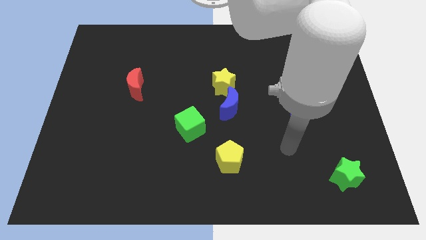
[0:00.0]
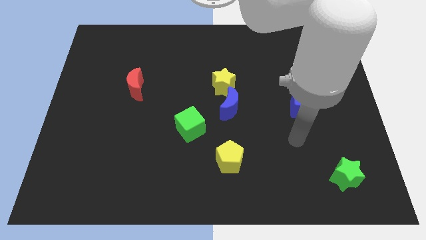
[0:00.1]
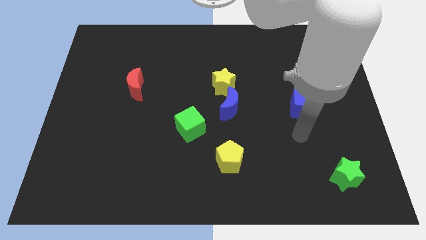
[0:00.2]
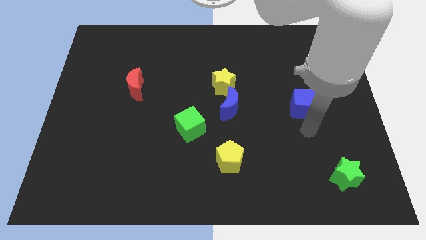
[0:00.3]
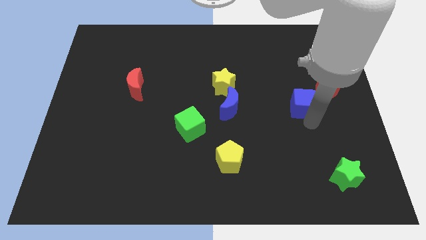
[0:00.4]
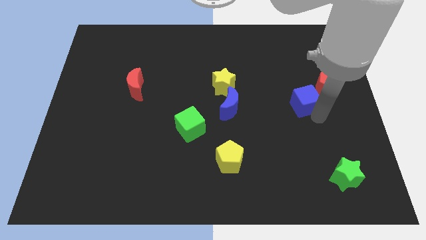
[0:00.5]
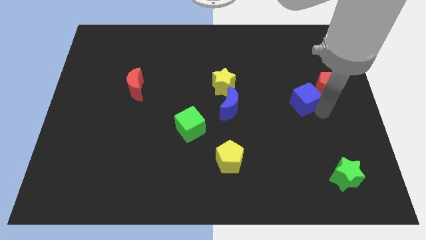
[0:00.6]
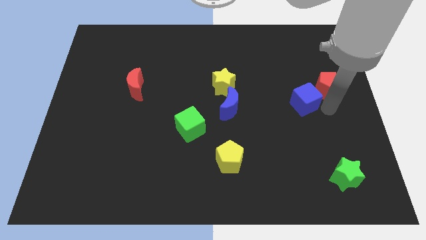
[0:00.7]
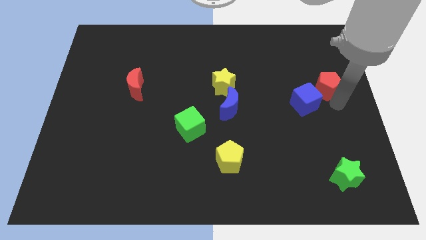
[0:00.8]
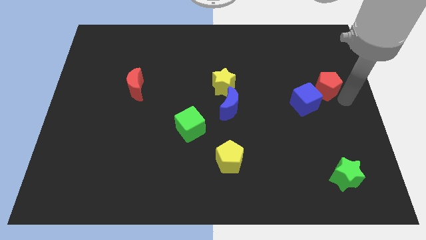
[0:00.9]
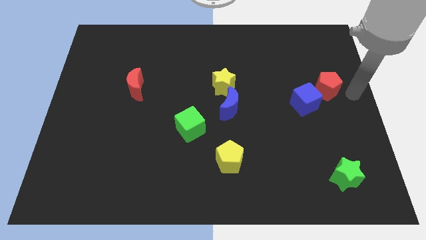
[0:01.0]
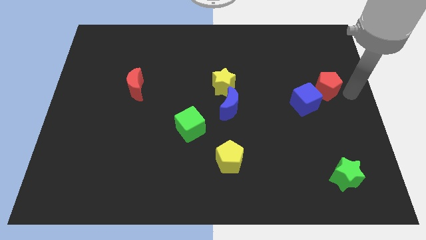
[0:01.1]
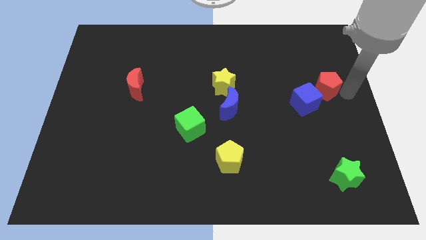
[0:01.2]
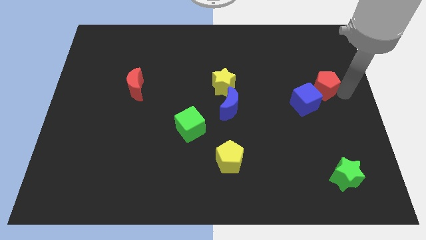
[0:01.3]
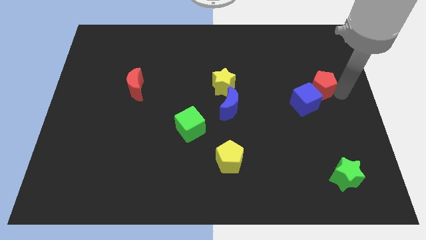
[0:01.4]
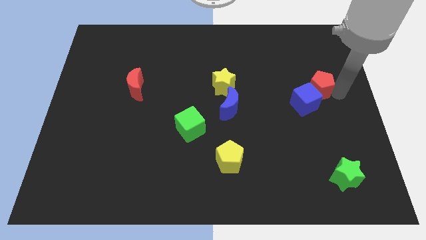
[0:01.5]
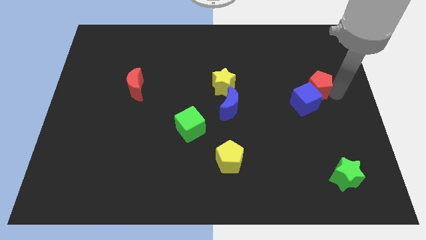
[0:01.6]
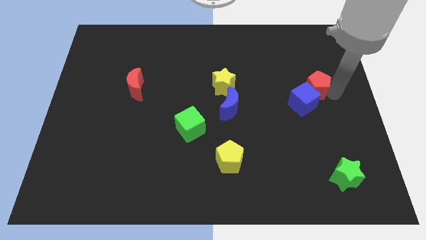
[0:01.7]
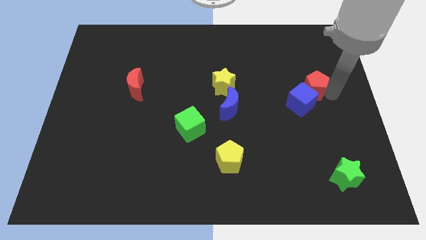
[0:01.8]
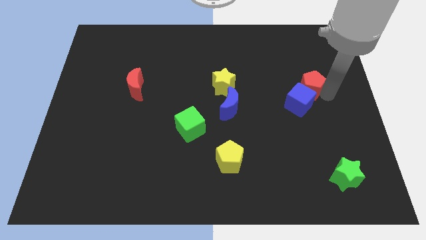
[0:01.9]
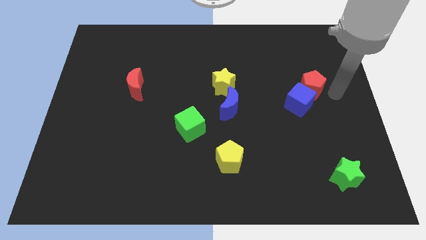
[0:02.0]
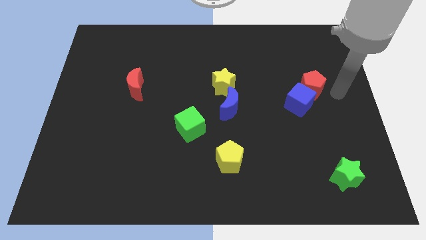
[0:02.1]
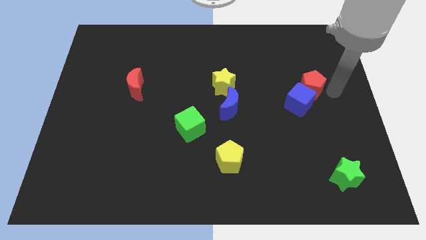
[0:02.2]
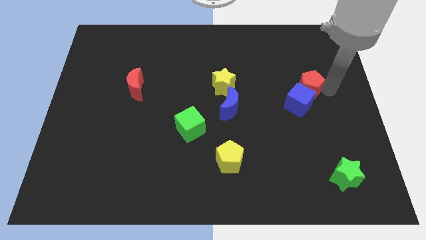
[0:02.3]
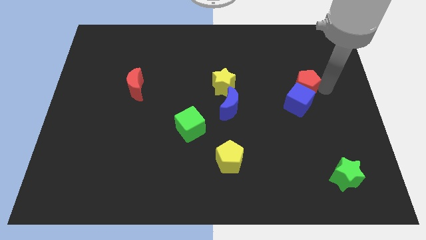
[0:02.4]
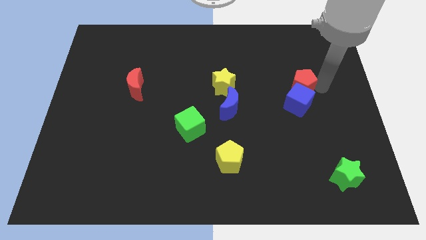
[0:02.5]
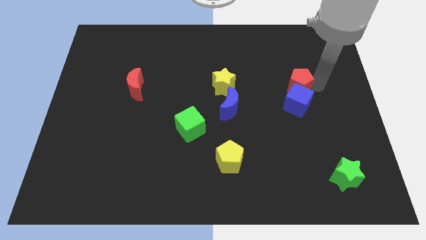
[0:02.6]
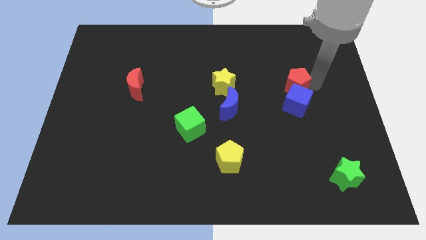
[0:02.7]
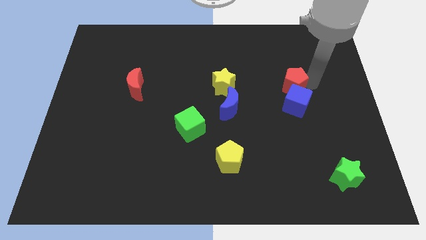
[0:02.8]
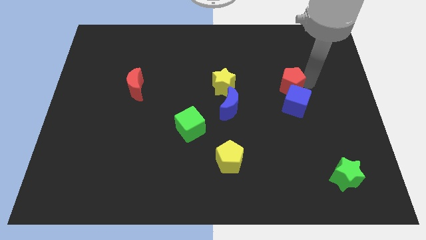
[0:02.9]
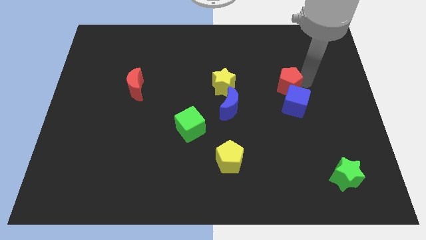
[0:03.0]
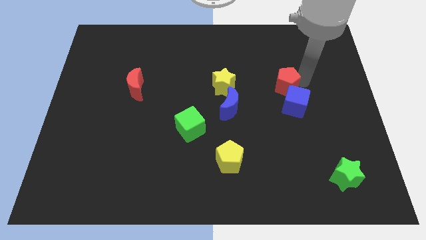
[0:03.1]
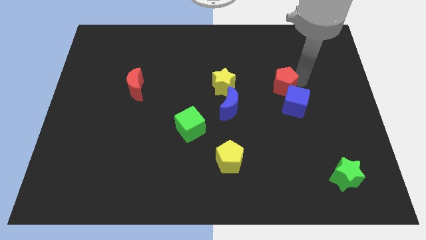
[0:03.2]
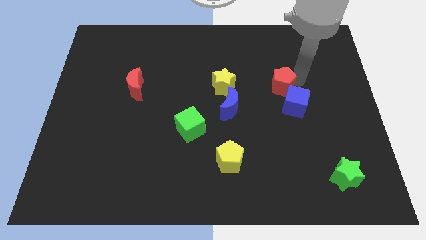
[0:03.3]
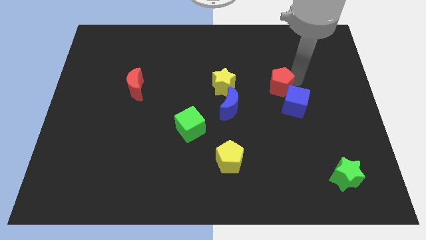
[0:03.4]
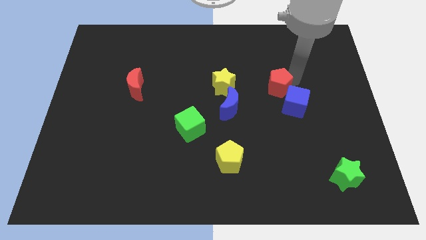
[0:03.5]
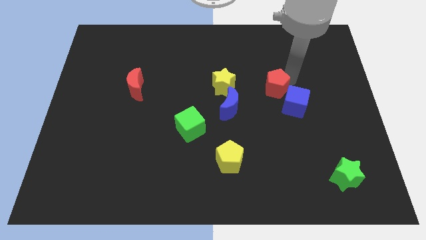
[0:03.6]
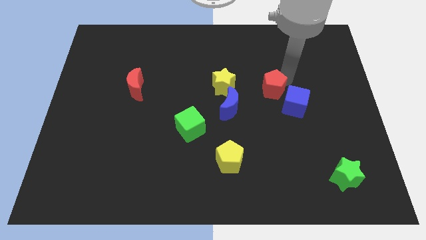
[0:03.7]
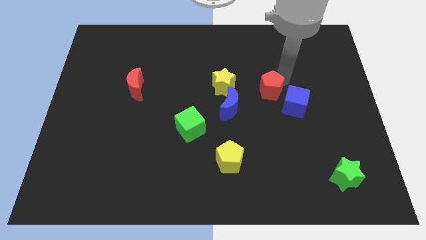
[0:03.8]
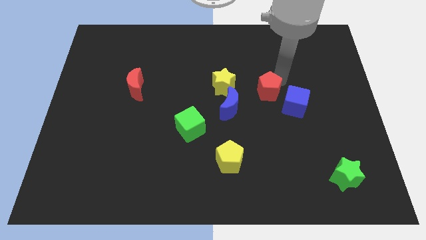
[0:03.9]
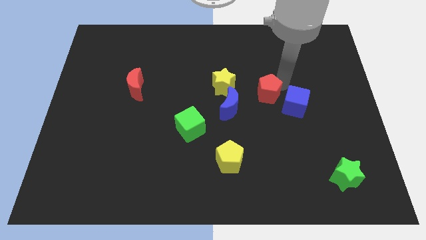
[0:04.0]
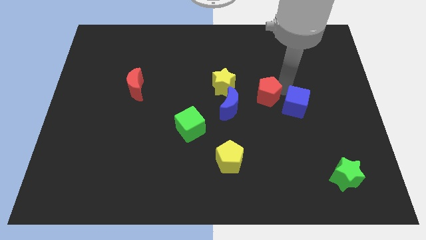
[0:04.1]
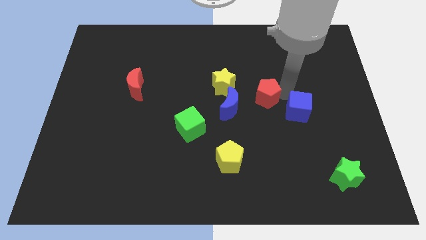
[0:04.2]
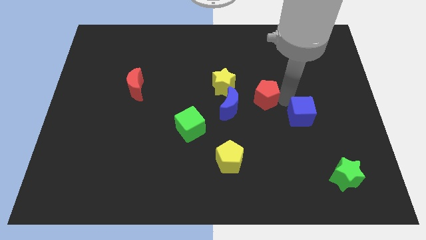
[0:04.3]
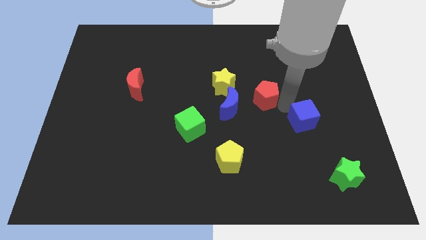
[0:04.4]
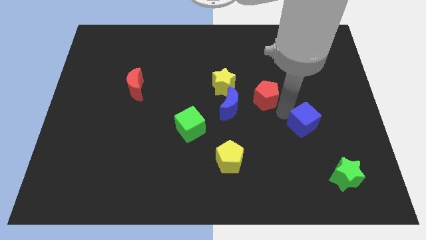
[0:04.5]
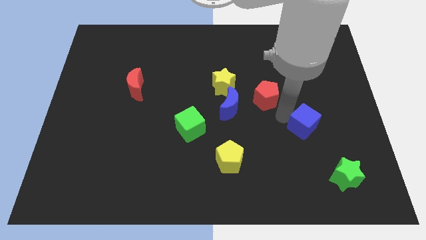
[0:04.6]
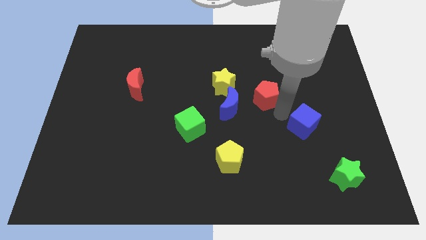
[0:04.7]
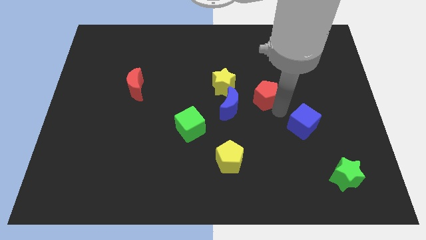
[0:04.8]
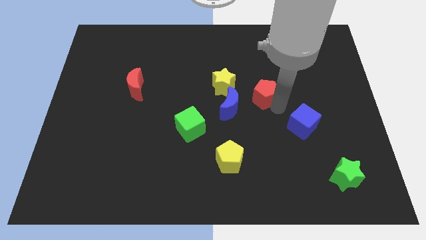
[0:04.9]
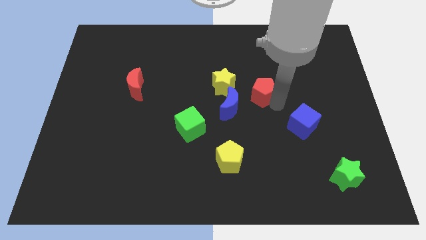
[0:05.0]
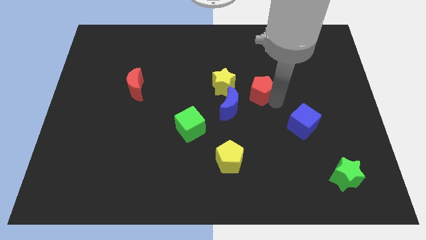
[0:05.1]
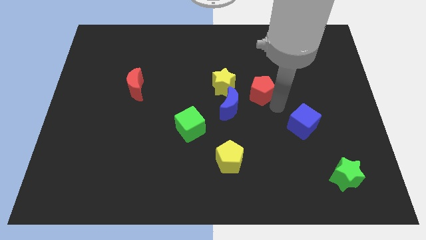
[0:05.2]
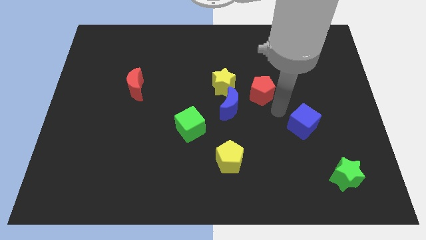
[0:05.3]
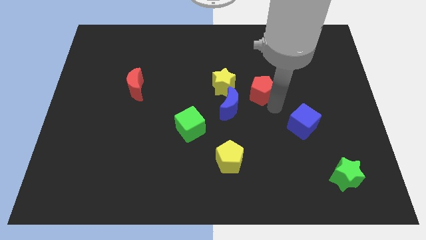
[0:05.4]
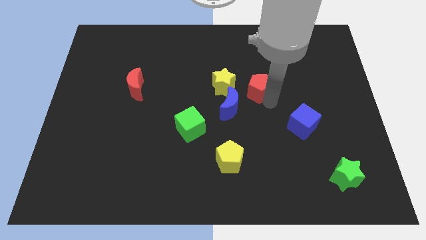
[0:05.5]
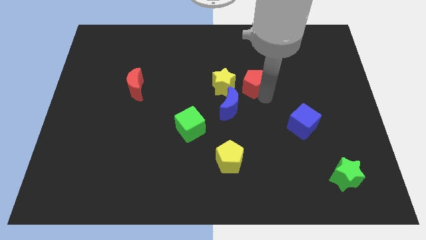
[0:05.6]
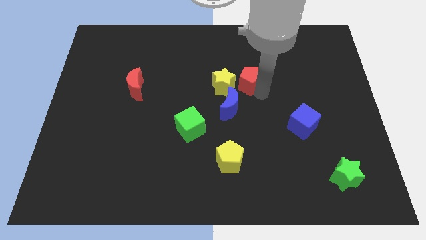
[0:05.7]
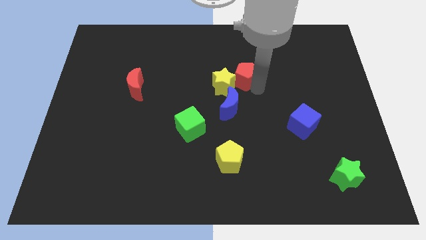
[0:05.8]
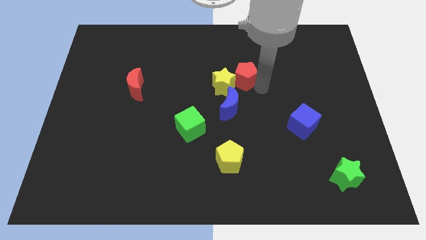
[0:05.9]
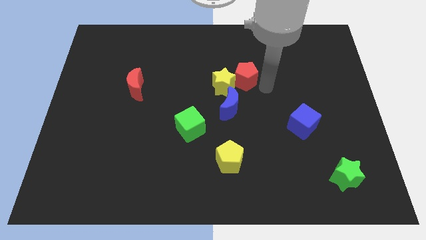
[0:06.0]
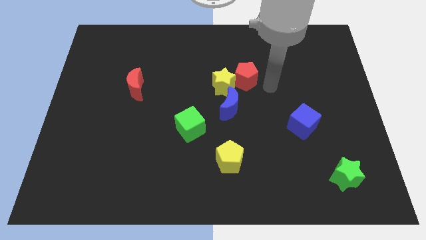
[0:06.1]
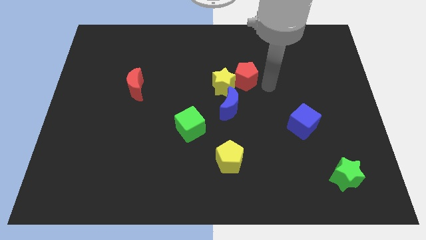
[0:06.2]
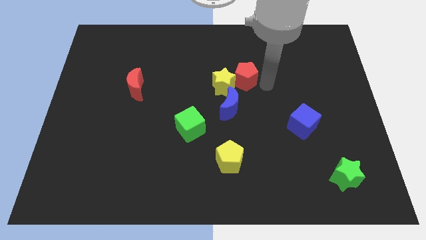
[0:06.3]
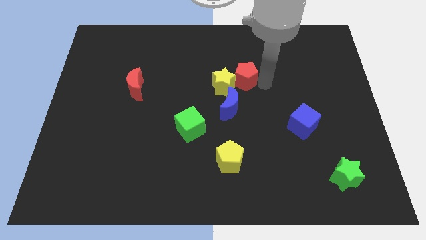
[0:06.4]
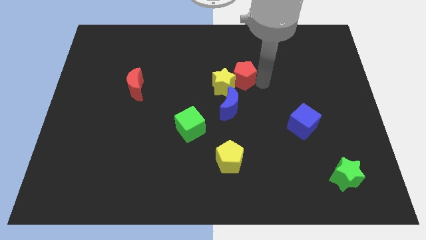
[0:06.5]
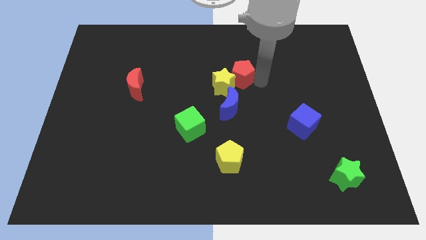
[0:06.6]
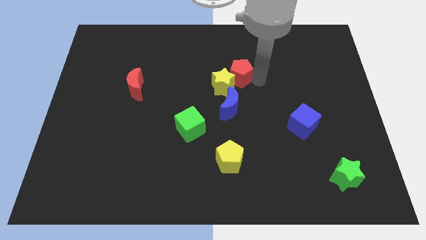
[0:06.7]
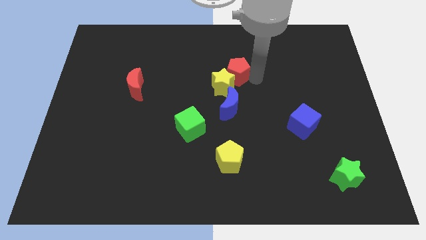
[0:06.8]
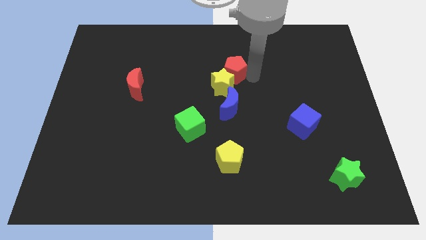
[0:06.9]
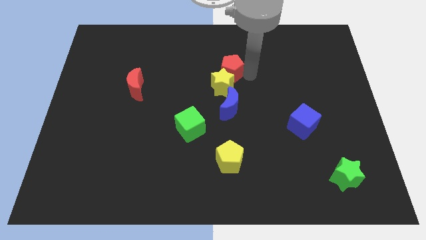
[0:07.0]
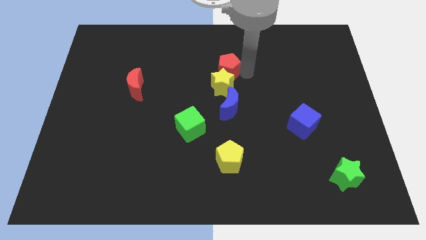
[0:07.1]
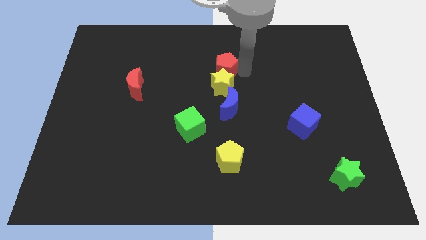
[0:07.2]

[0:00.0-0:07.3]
slide the red pentagon to the top left of the yellow star
